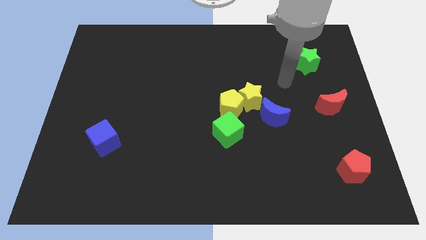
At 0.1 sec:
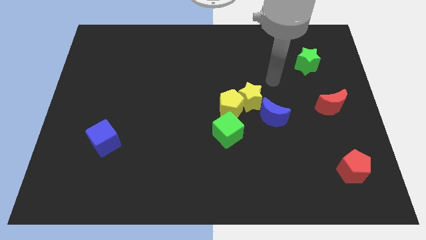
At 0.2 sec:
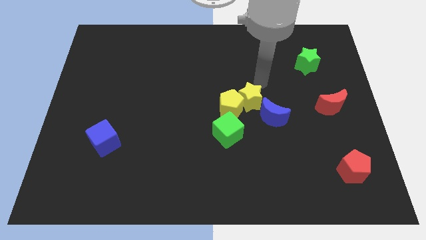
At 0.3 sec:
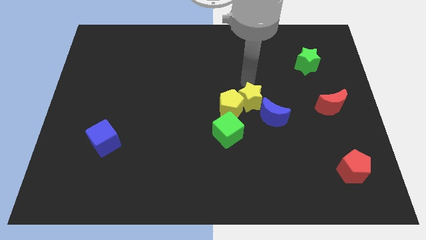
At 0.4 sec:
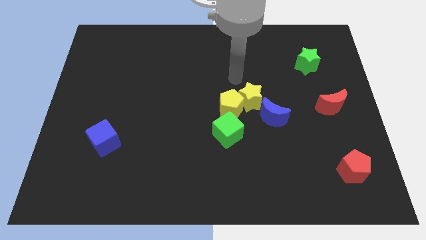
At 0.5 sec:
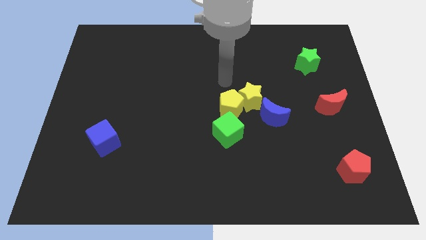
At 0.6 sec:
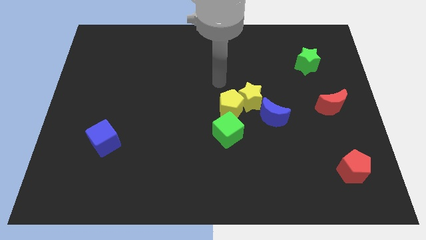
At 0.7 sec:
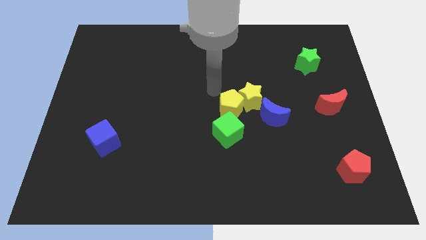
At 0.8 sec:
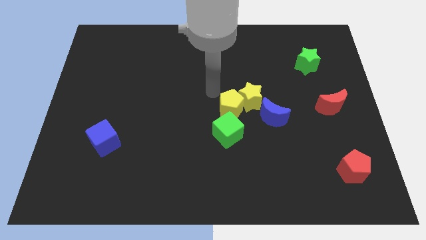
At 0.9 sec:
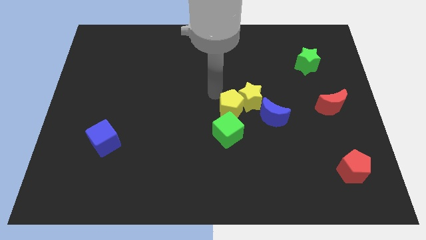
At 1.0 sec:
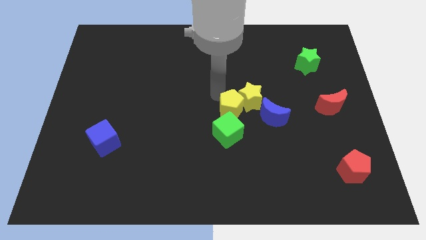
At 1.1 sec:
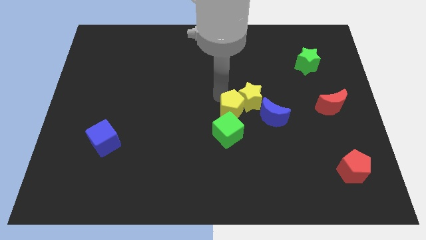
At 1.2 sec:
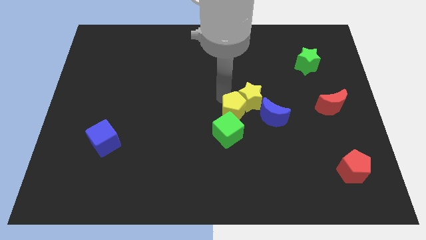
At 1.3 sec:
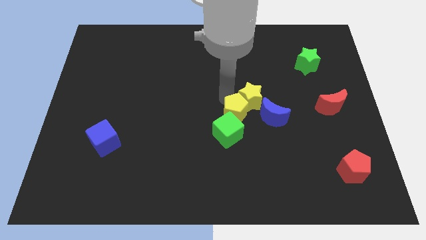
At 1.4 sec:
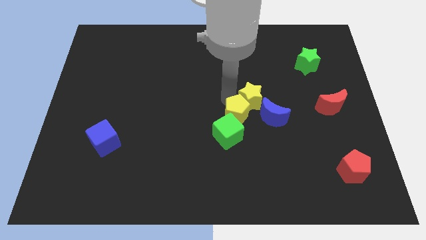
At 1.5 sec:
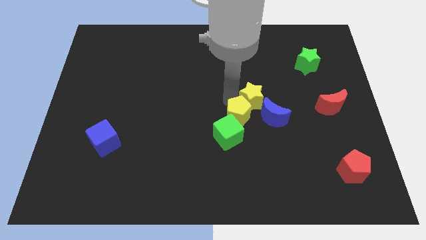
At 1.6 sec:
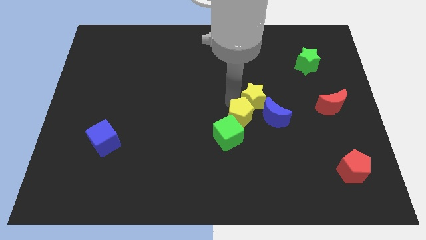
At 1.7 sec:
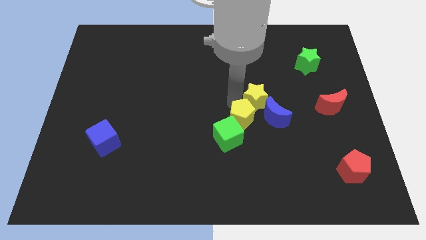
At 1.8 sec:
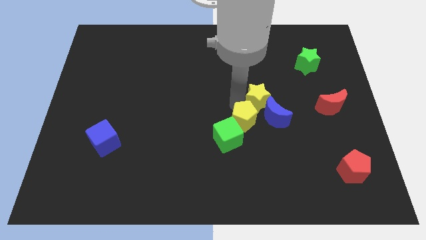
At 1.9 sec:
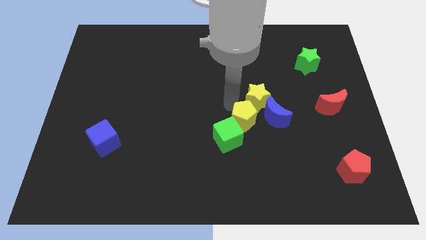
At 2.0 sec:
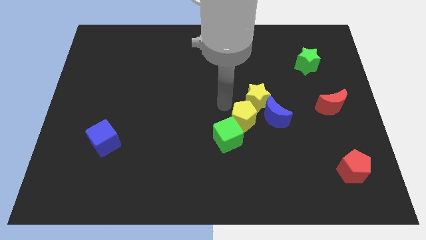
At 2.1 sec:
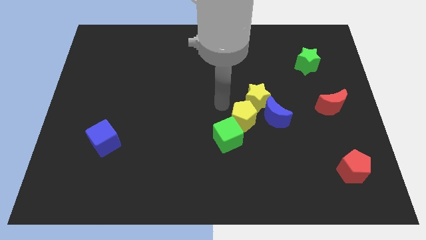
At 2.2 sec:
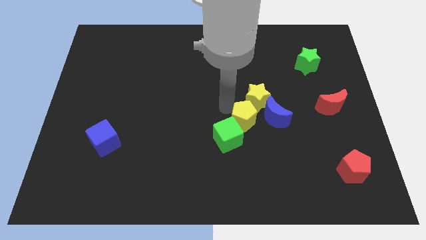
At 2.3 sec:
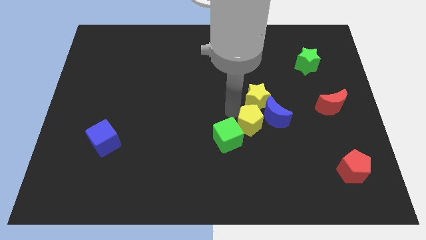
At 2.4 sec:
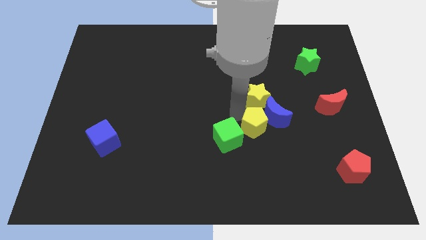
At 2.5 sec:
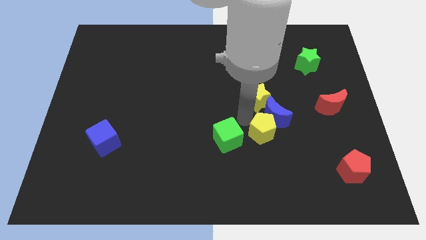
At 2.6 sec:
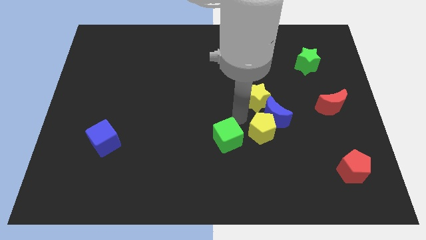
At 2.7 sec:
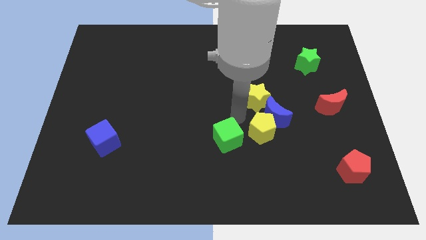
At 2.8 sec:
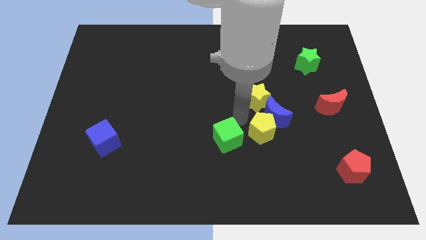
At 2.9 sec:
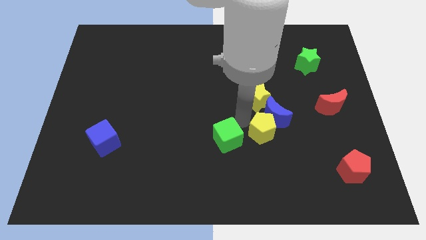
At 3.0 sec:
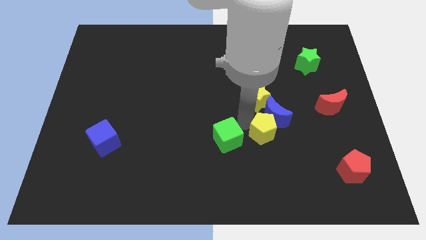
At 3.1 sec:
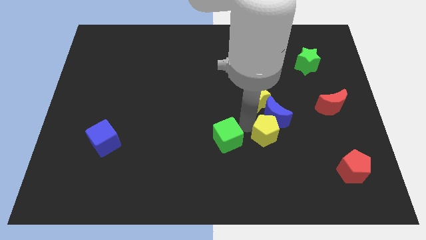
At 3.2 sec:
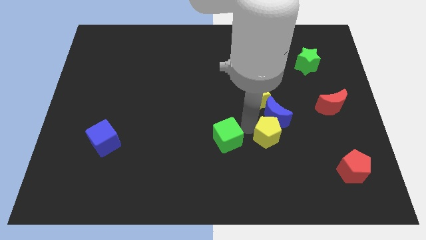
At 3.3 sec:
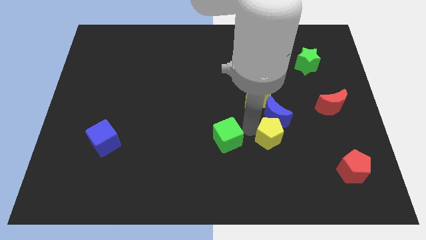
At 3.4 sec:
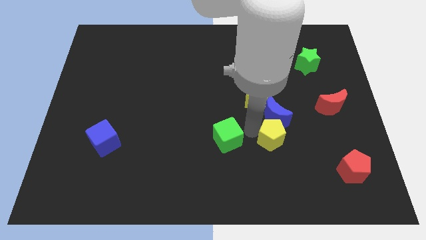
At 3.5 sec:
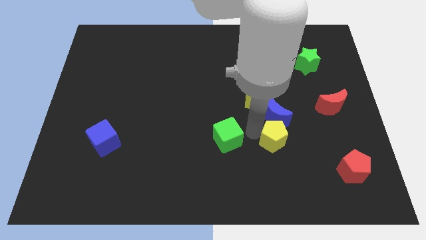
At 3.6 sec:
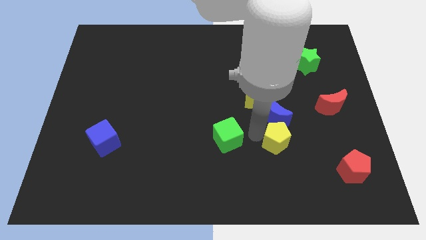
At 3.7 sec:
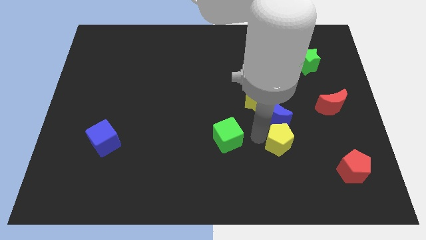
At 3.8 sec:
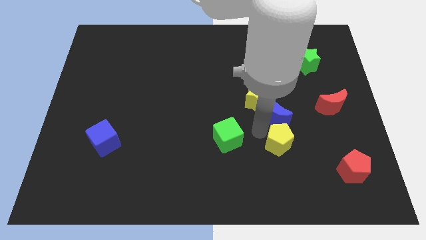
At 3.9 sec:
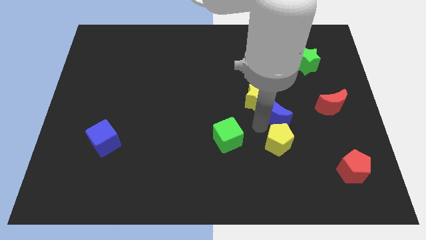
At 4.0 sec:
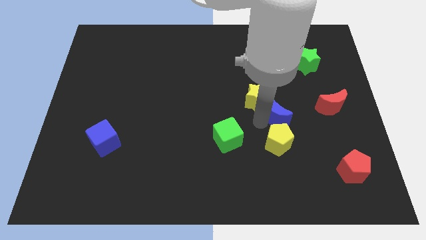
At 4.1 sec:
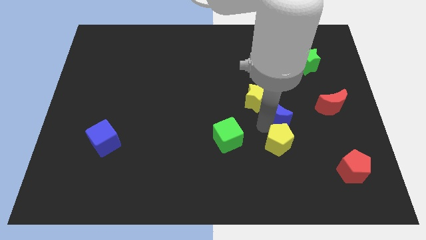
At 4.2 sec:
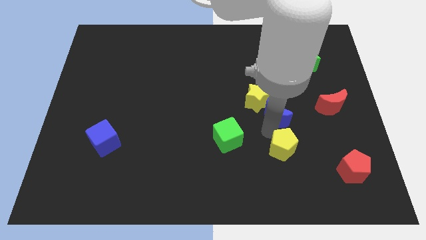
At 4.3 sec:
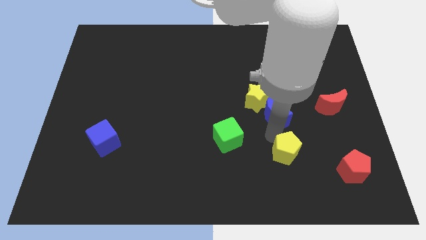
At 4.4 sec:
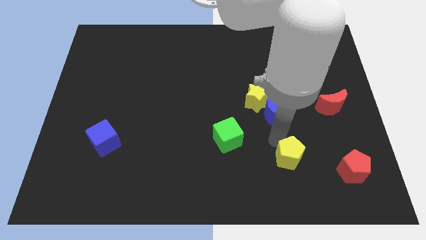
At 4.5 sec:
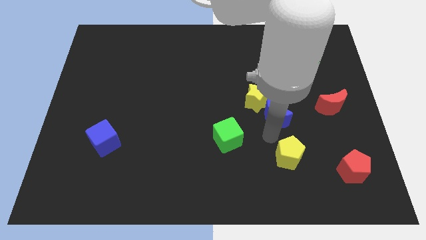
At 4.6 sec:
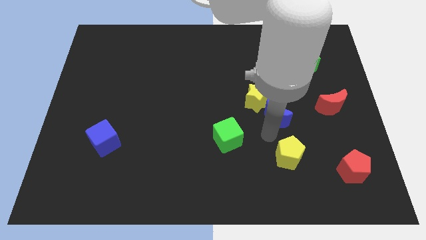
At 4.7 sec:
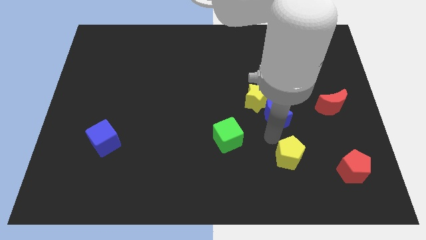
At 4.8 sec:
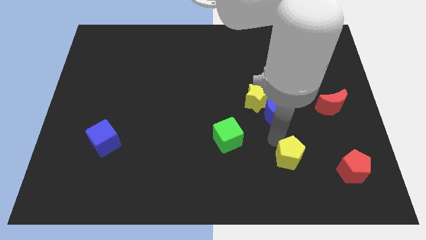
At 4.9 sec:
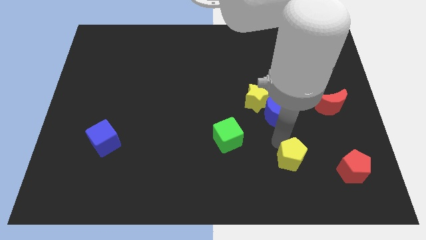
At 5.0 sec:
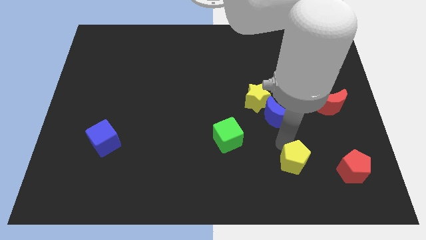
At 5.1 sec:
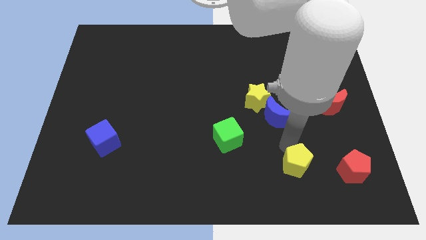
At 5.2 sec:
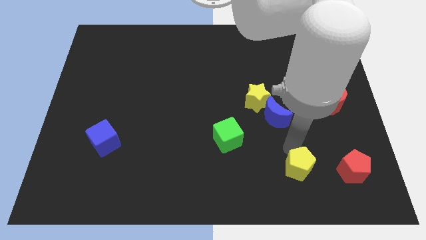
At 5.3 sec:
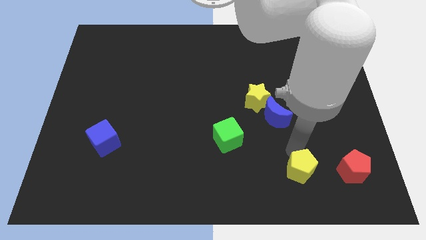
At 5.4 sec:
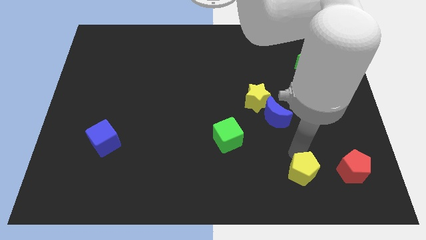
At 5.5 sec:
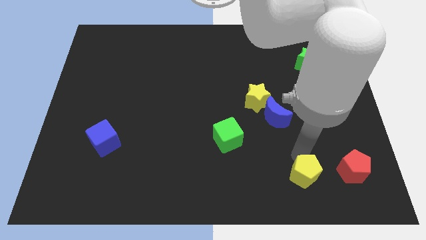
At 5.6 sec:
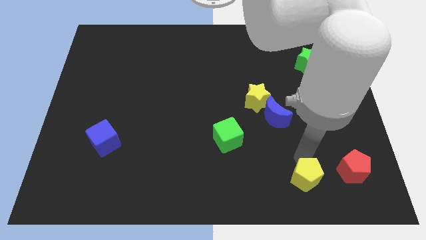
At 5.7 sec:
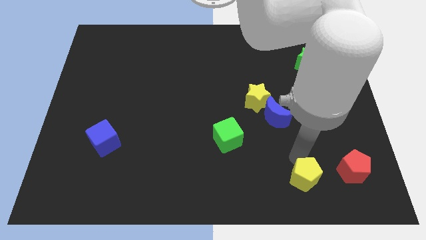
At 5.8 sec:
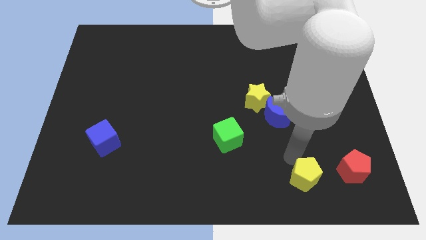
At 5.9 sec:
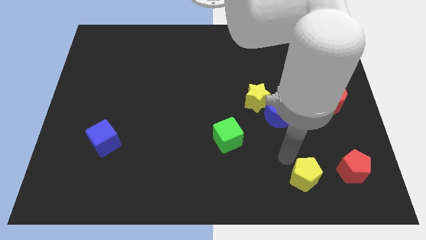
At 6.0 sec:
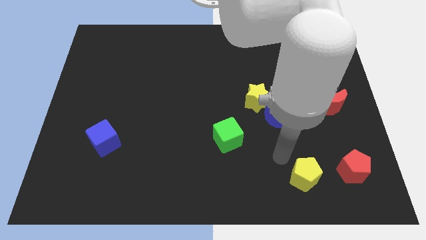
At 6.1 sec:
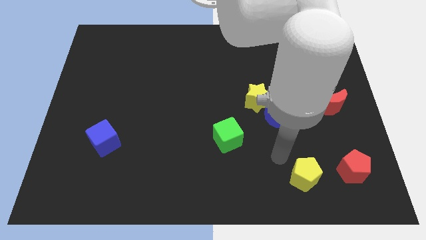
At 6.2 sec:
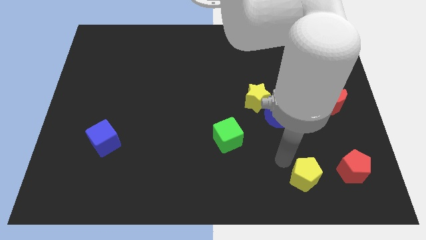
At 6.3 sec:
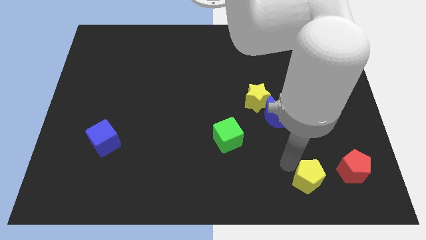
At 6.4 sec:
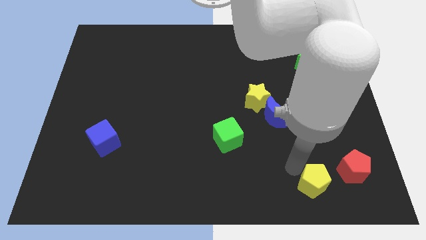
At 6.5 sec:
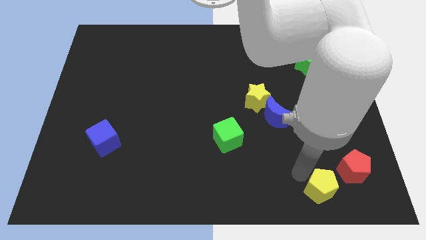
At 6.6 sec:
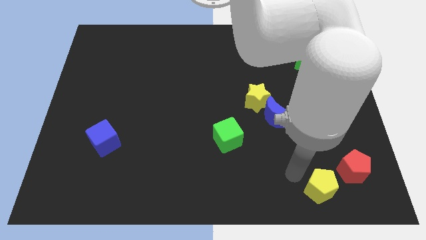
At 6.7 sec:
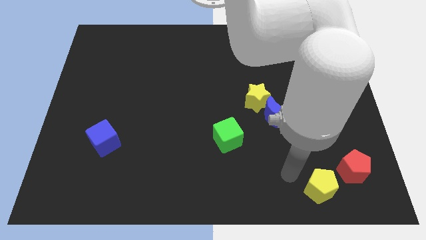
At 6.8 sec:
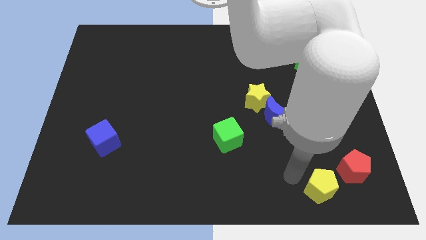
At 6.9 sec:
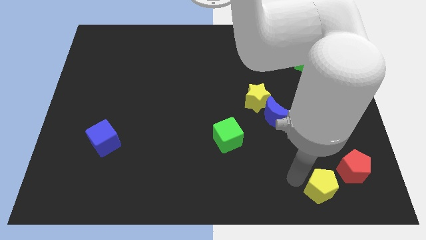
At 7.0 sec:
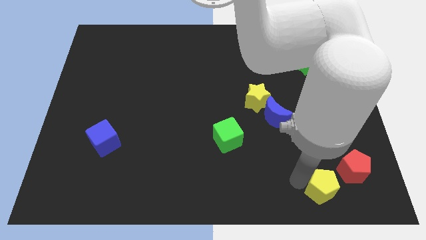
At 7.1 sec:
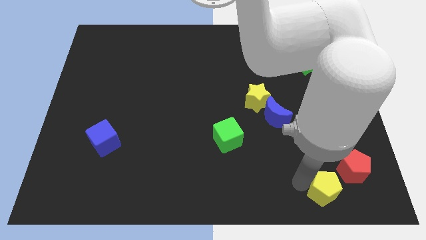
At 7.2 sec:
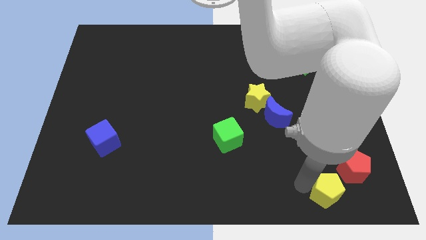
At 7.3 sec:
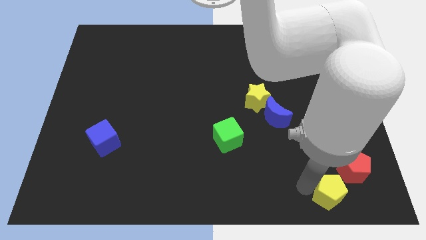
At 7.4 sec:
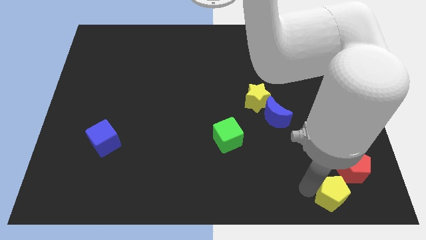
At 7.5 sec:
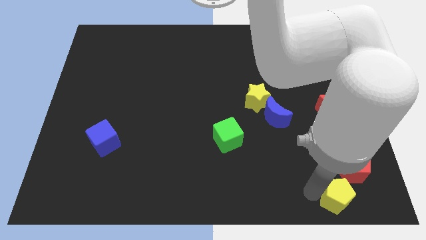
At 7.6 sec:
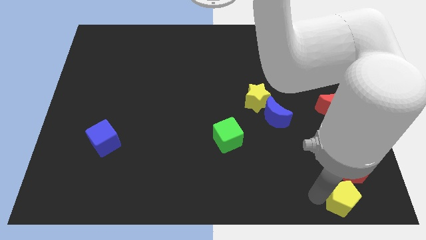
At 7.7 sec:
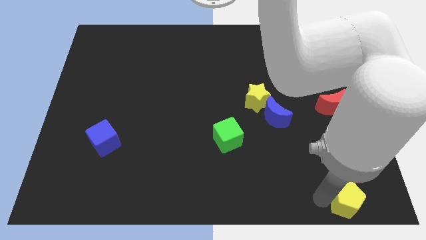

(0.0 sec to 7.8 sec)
push the yellow pentagon to the bottom right
